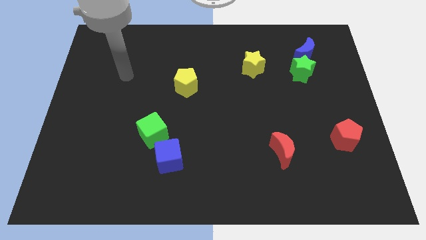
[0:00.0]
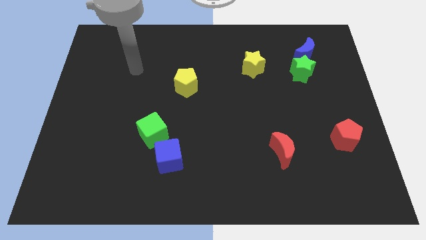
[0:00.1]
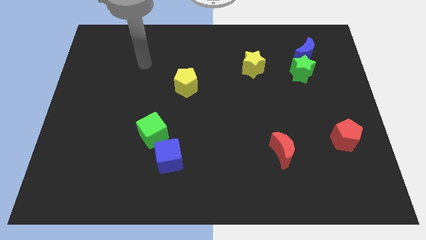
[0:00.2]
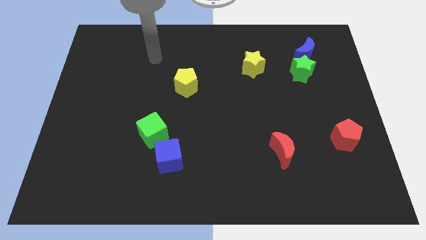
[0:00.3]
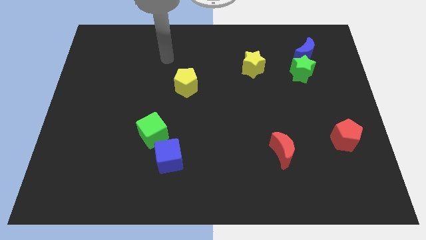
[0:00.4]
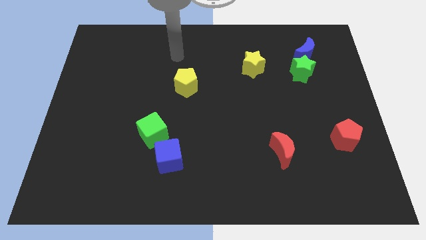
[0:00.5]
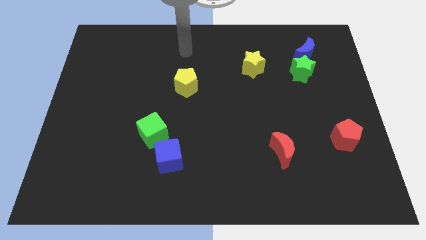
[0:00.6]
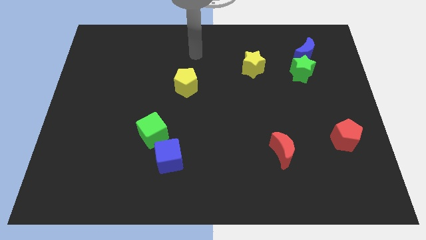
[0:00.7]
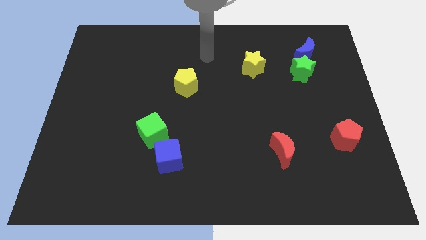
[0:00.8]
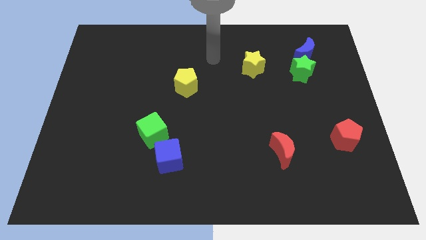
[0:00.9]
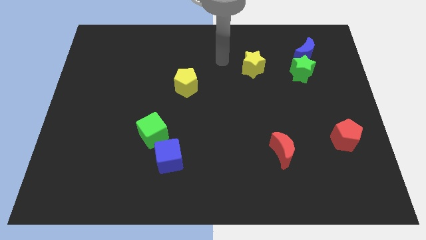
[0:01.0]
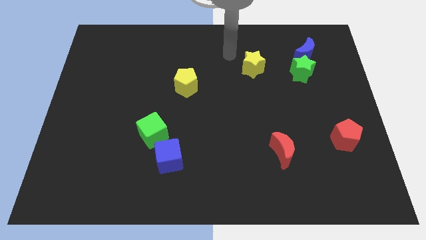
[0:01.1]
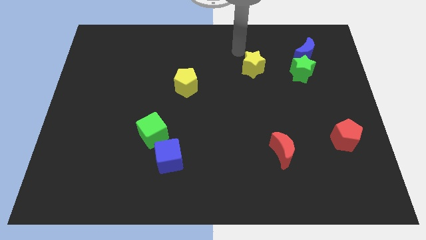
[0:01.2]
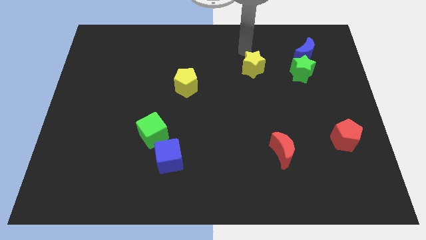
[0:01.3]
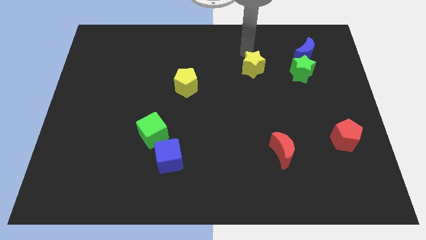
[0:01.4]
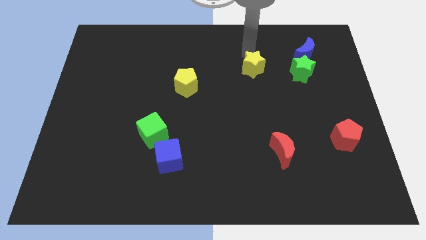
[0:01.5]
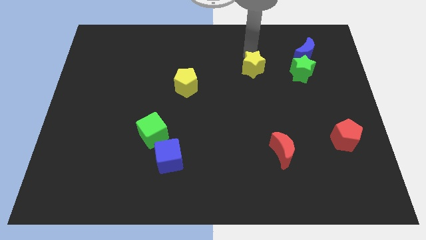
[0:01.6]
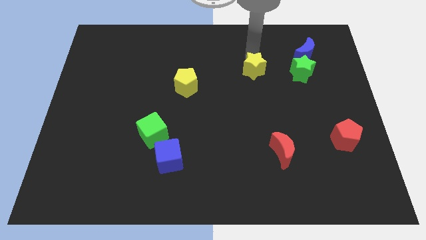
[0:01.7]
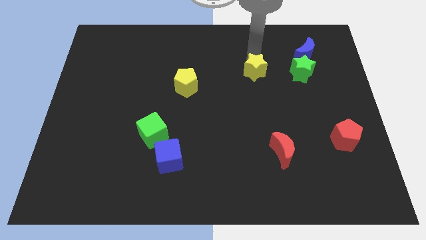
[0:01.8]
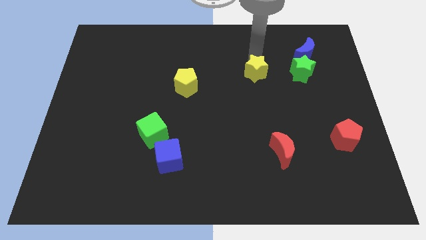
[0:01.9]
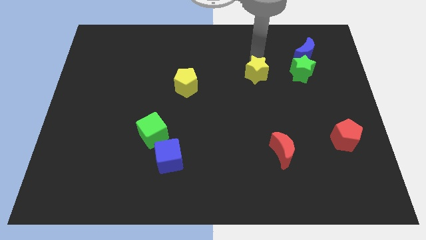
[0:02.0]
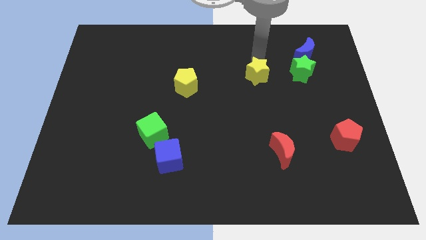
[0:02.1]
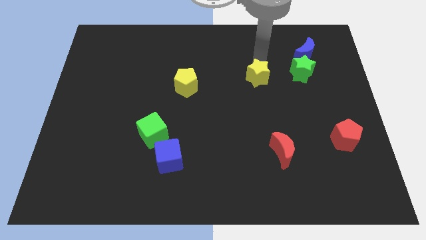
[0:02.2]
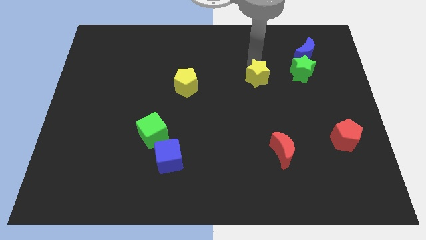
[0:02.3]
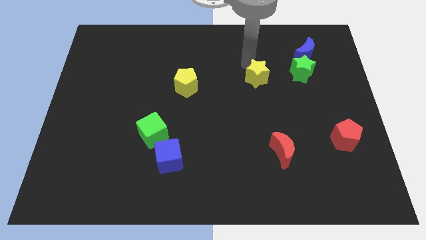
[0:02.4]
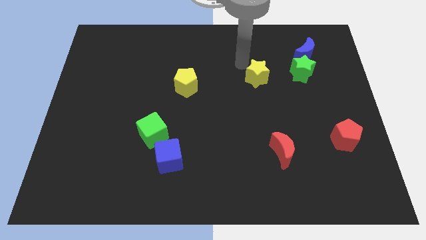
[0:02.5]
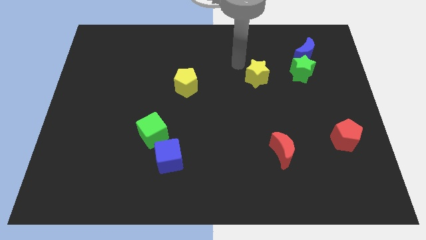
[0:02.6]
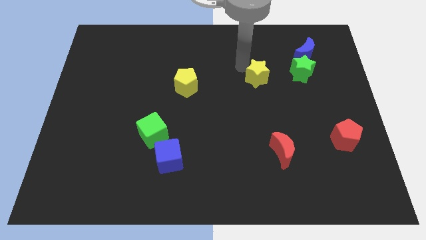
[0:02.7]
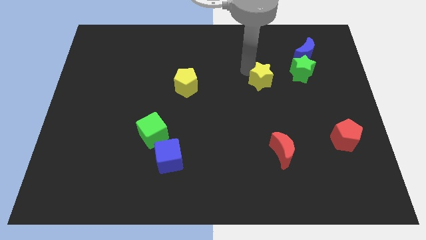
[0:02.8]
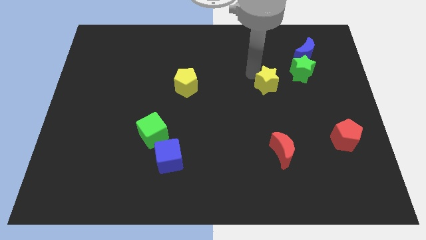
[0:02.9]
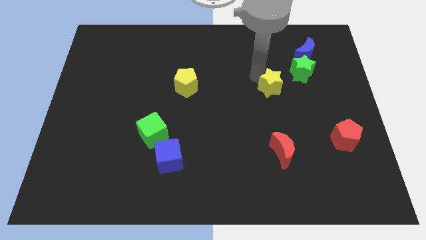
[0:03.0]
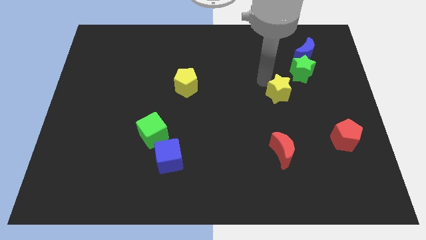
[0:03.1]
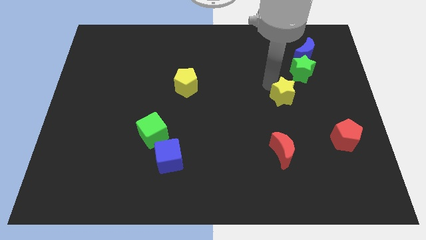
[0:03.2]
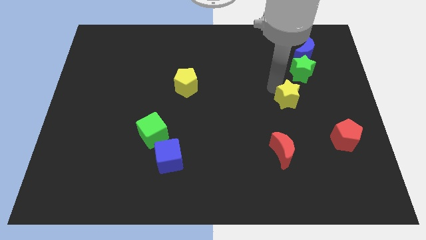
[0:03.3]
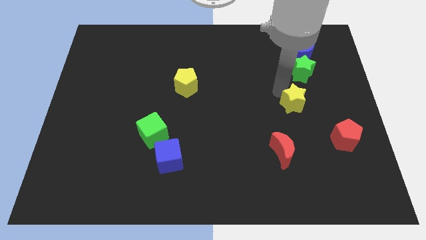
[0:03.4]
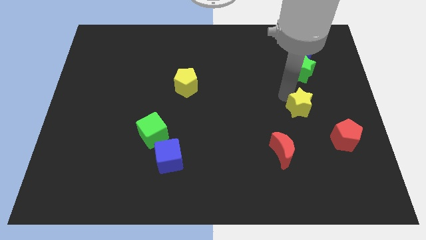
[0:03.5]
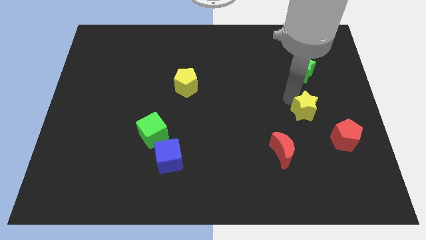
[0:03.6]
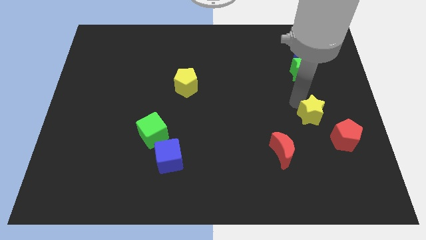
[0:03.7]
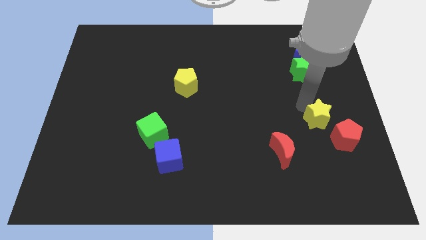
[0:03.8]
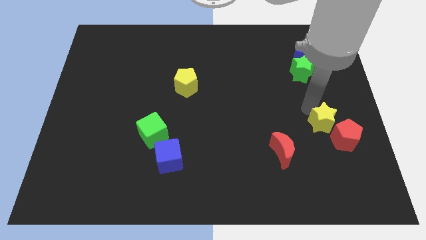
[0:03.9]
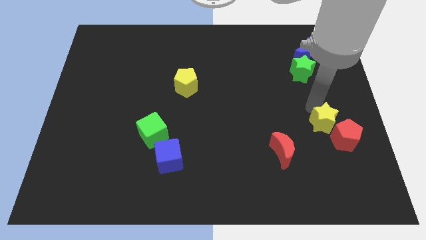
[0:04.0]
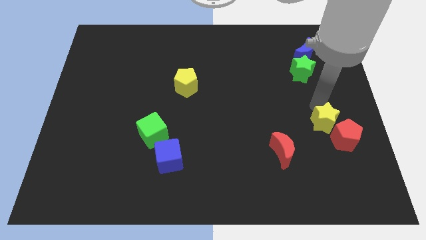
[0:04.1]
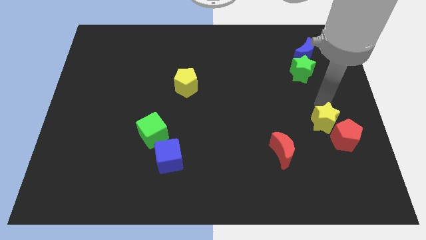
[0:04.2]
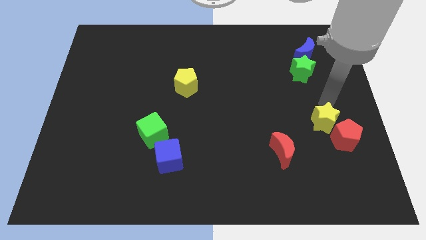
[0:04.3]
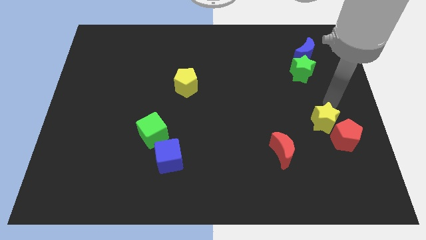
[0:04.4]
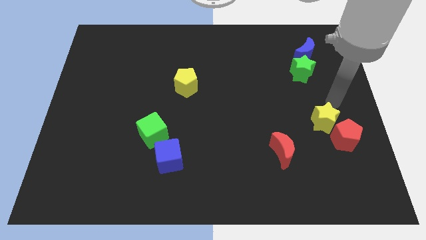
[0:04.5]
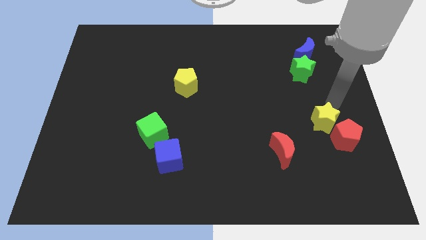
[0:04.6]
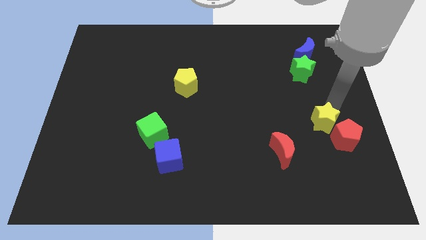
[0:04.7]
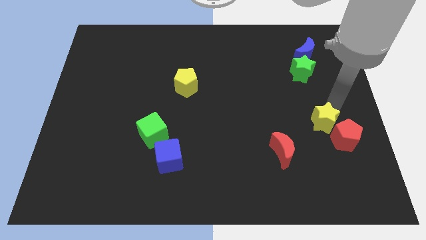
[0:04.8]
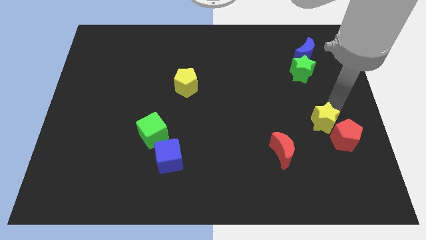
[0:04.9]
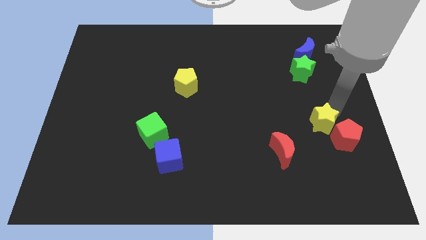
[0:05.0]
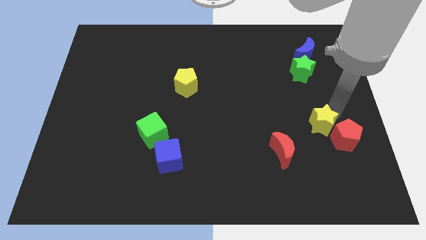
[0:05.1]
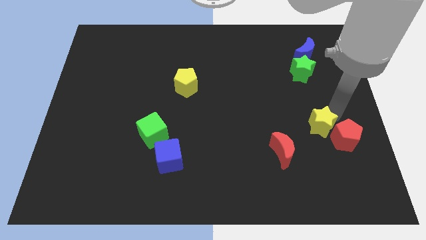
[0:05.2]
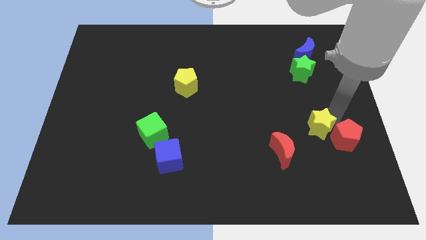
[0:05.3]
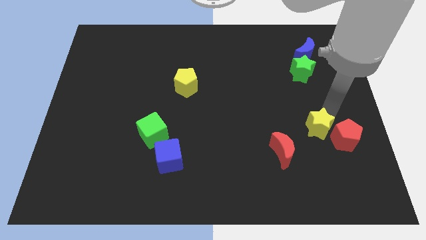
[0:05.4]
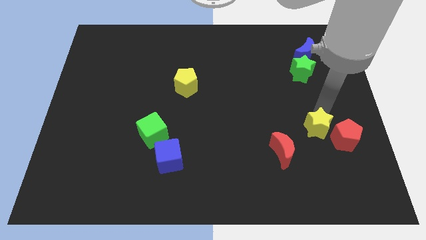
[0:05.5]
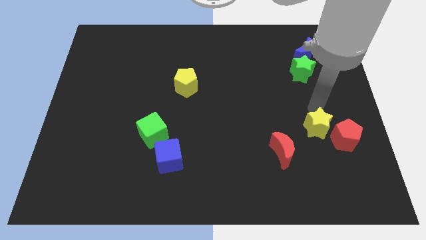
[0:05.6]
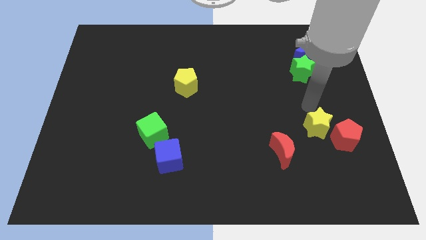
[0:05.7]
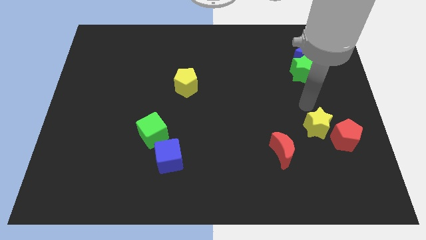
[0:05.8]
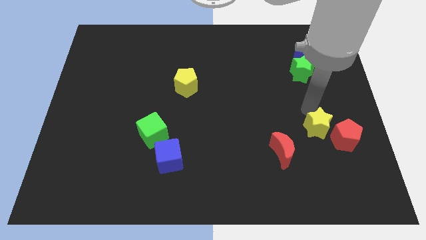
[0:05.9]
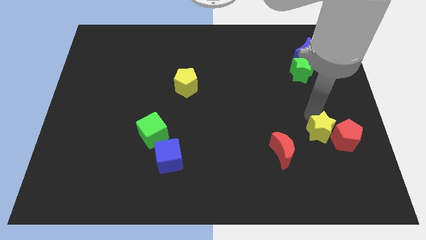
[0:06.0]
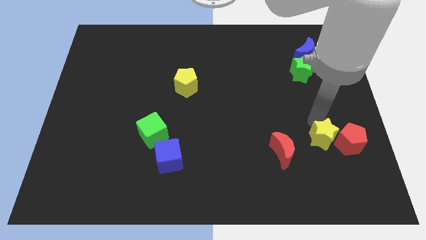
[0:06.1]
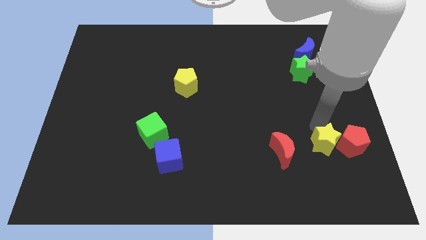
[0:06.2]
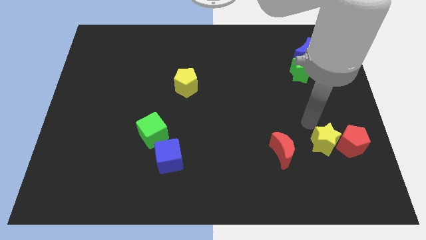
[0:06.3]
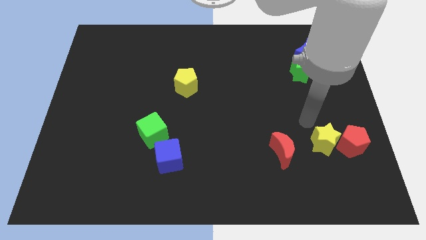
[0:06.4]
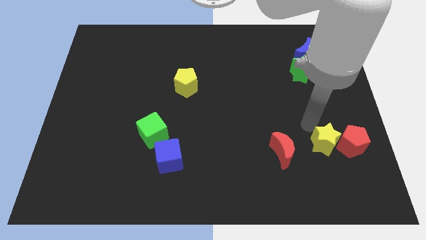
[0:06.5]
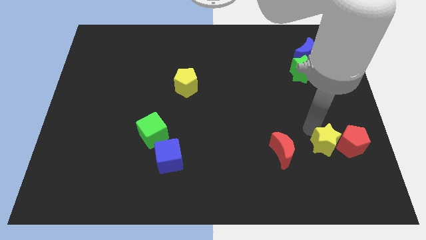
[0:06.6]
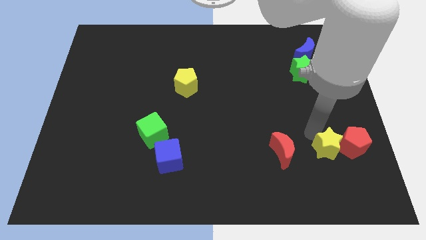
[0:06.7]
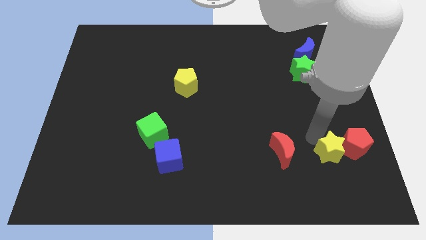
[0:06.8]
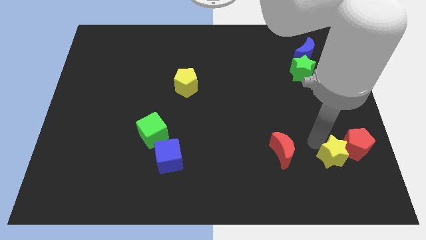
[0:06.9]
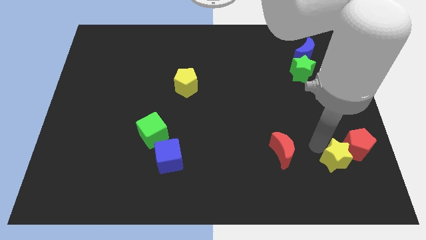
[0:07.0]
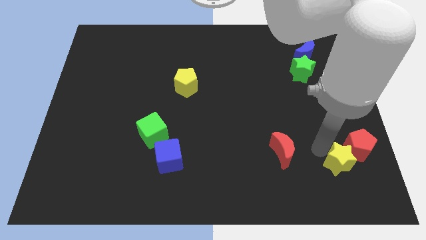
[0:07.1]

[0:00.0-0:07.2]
move the yellow star below the red pentagon
